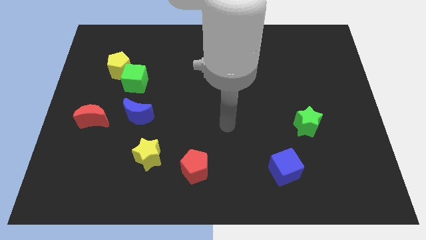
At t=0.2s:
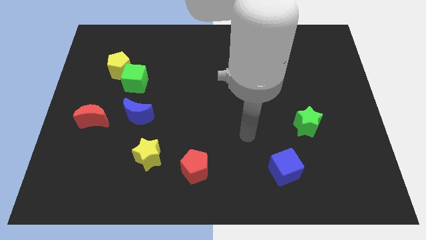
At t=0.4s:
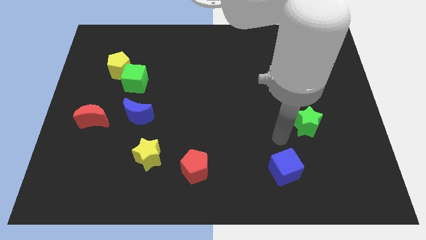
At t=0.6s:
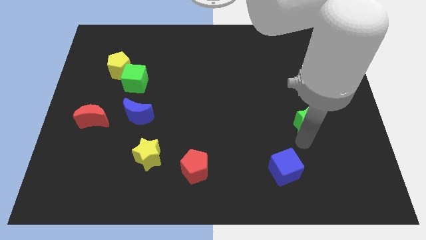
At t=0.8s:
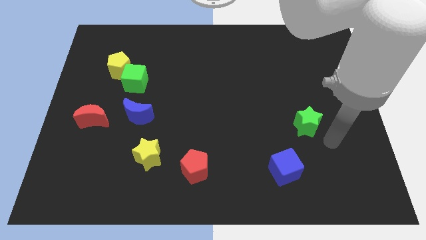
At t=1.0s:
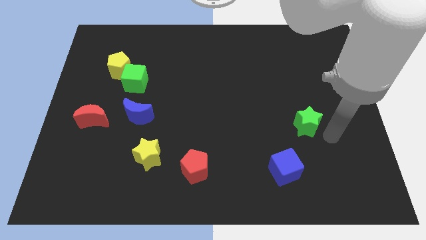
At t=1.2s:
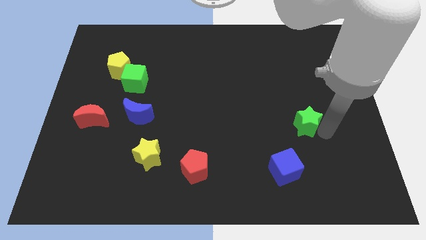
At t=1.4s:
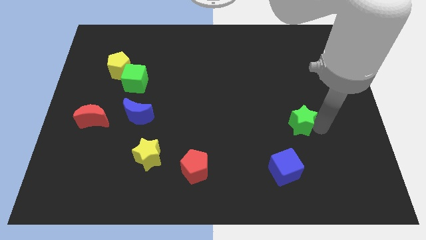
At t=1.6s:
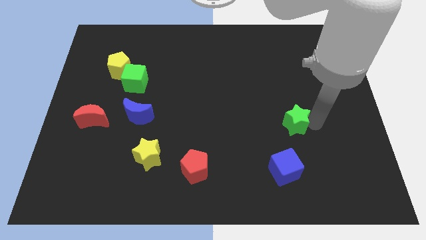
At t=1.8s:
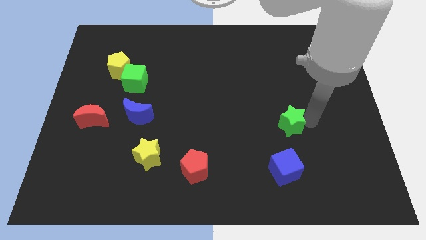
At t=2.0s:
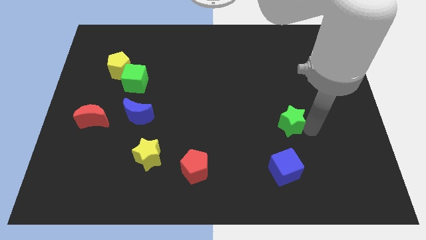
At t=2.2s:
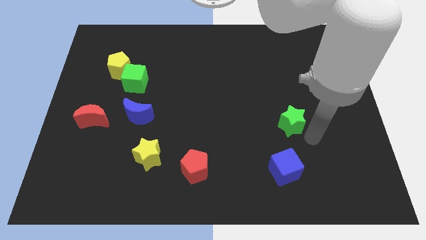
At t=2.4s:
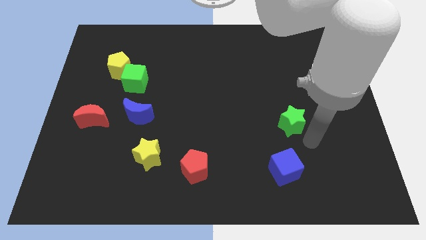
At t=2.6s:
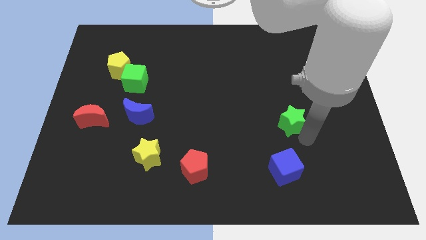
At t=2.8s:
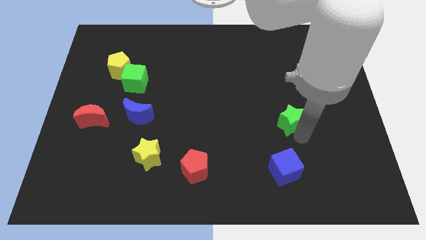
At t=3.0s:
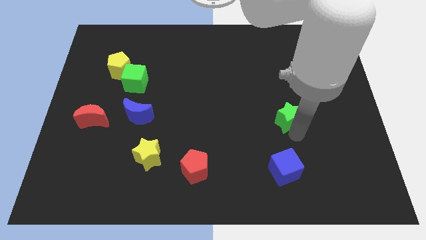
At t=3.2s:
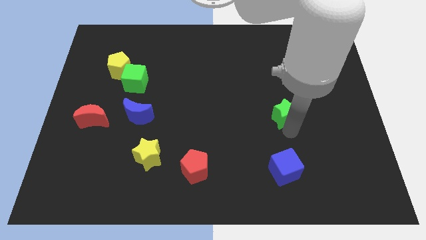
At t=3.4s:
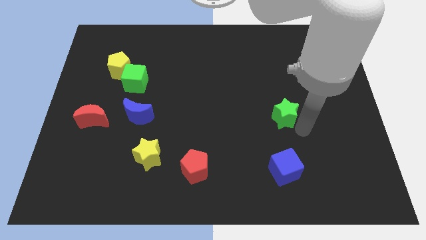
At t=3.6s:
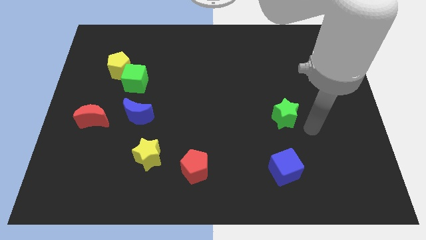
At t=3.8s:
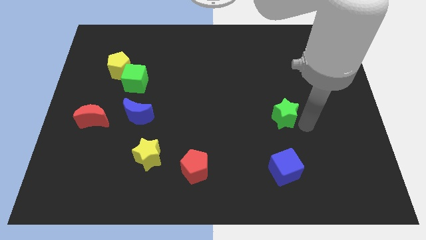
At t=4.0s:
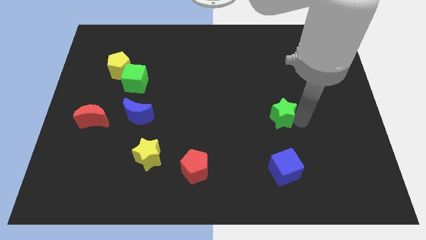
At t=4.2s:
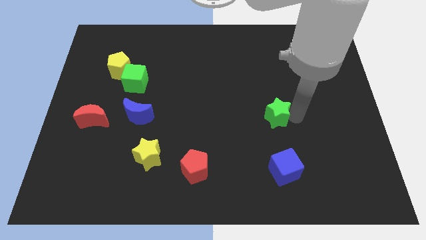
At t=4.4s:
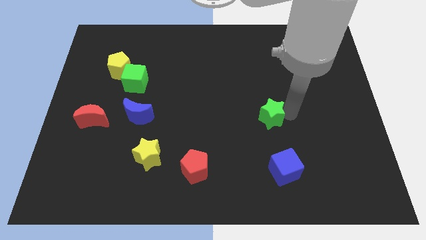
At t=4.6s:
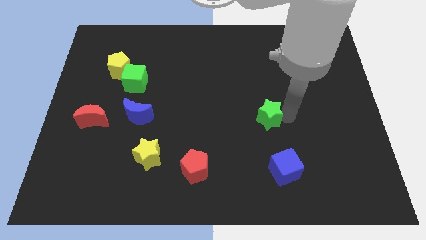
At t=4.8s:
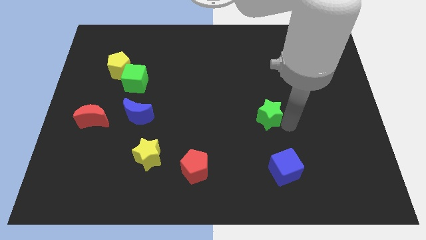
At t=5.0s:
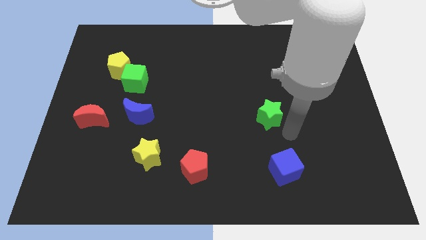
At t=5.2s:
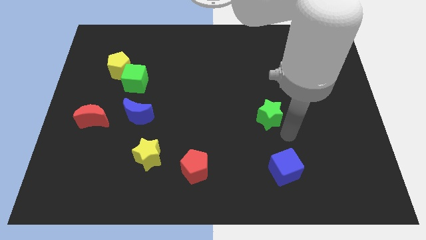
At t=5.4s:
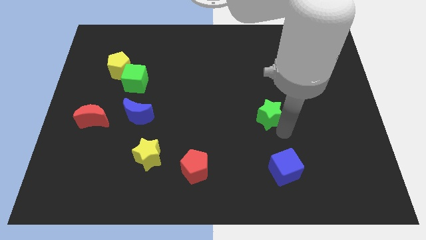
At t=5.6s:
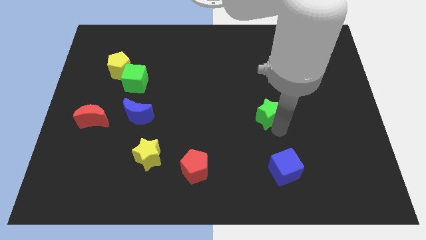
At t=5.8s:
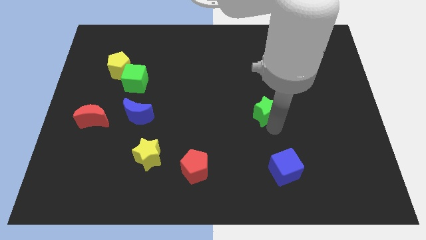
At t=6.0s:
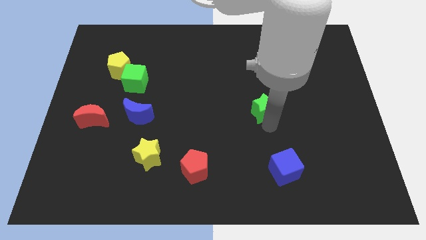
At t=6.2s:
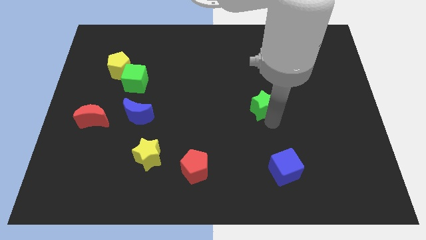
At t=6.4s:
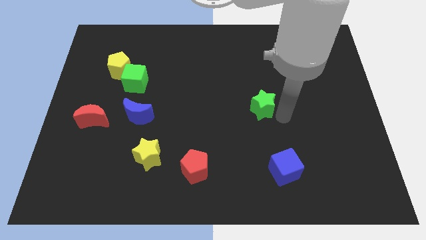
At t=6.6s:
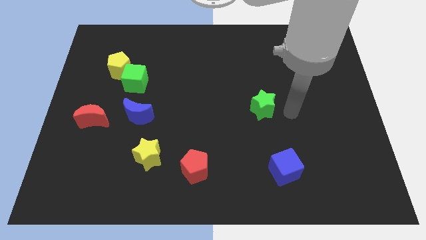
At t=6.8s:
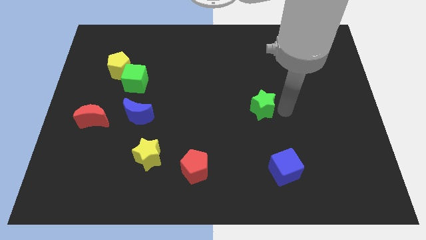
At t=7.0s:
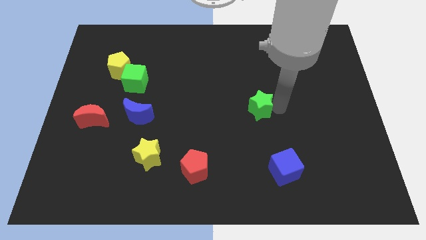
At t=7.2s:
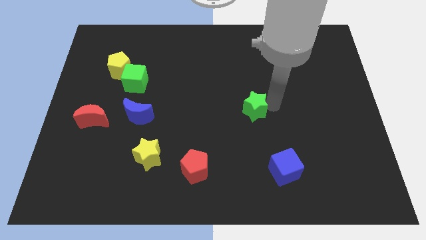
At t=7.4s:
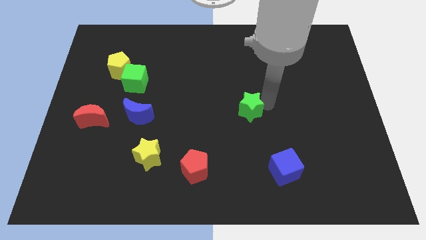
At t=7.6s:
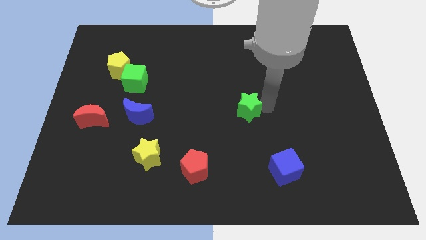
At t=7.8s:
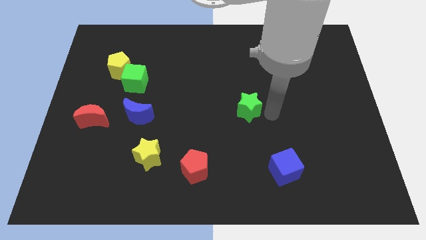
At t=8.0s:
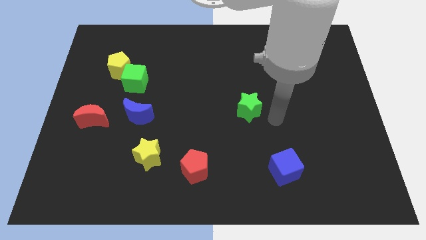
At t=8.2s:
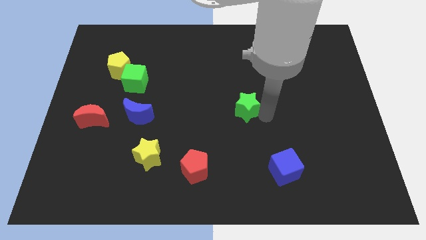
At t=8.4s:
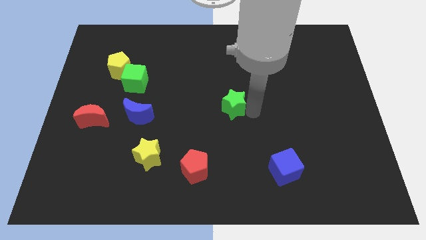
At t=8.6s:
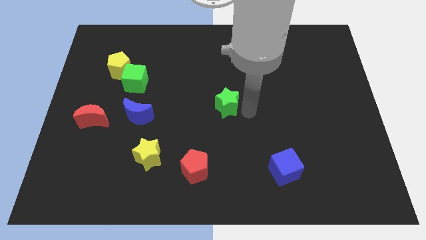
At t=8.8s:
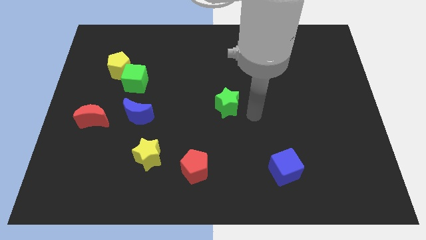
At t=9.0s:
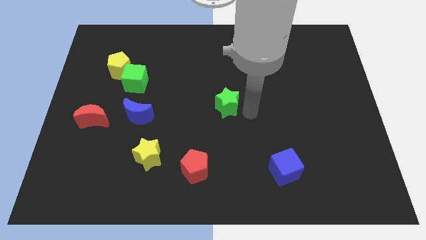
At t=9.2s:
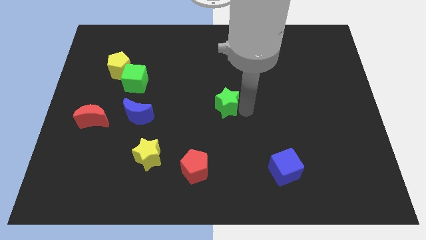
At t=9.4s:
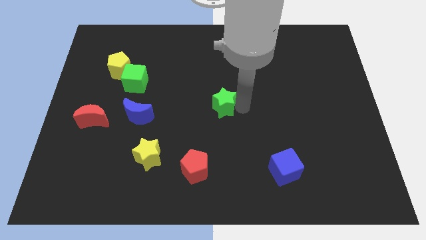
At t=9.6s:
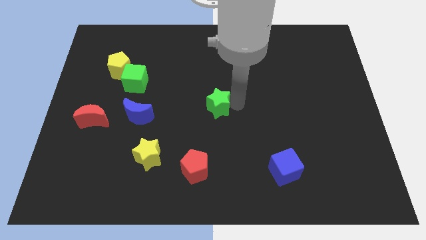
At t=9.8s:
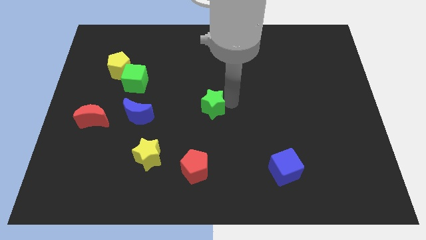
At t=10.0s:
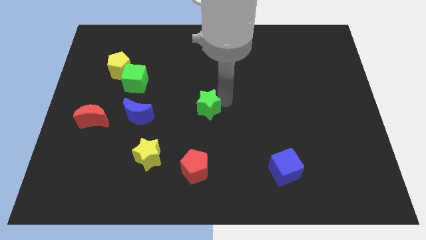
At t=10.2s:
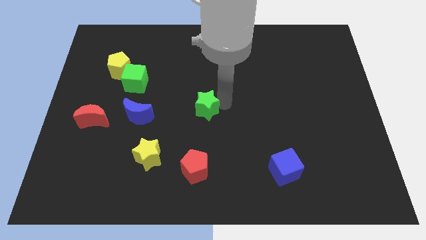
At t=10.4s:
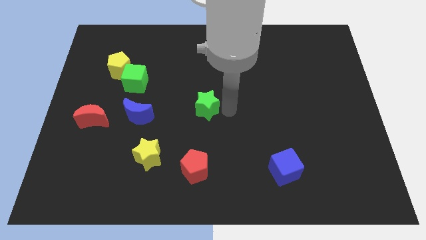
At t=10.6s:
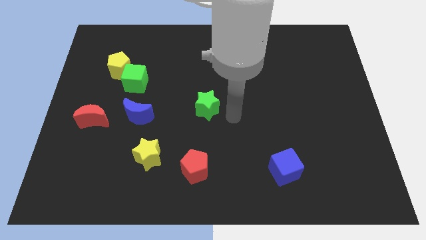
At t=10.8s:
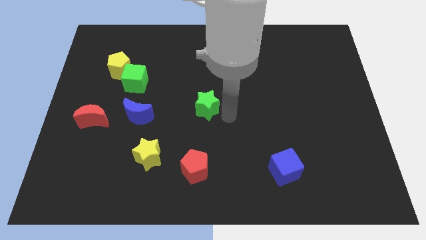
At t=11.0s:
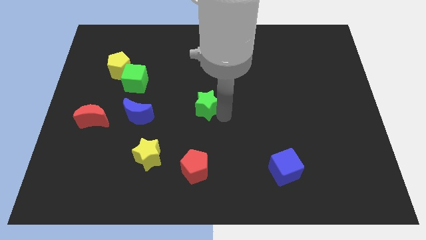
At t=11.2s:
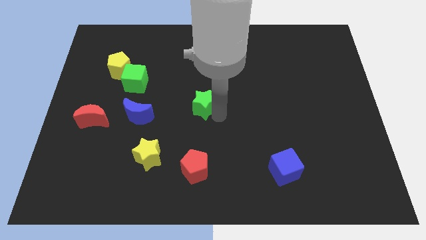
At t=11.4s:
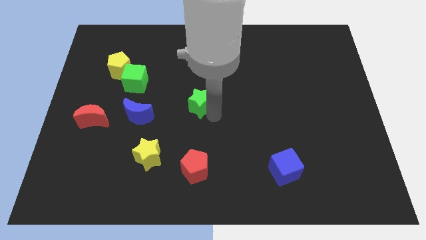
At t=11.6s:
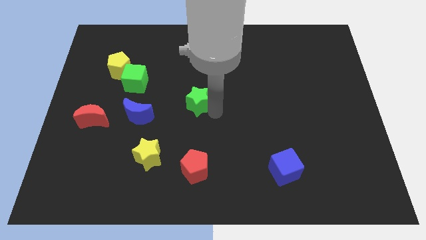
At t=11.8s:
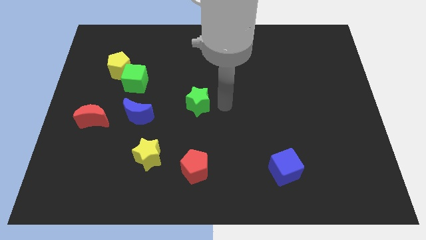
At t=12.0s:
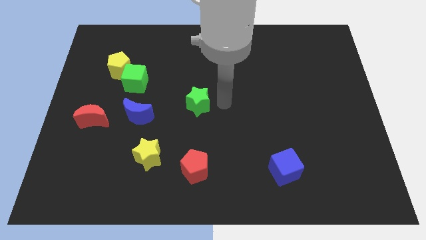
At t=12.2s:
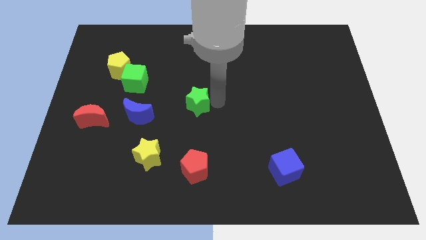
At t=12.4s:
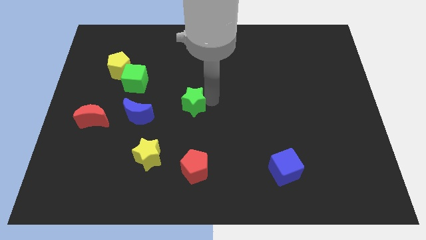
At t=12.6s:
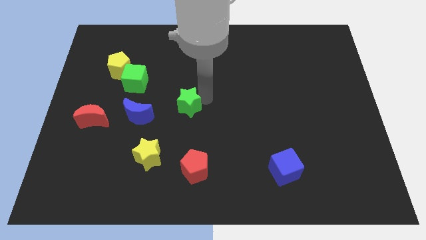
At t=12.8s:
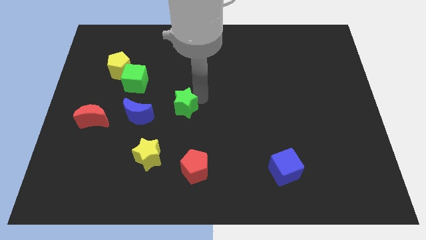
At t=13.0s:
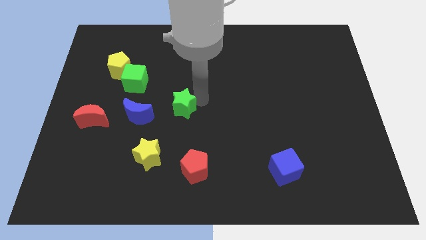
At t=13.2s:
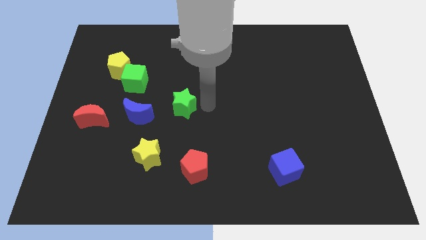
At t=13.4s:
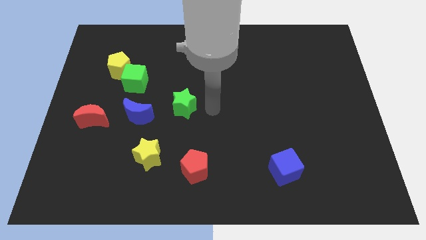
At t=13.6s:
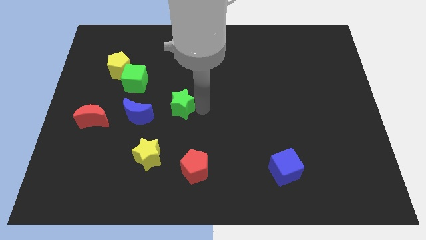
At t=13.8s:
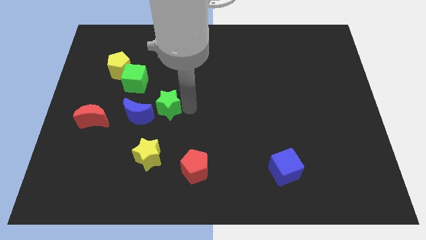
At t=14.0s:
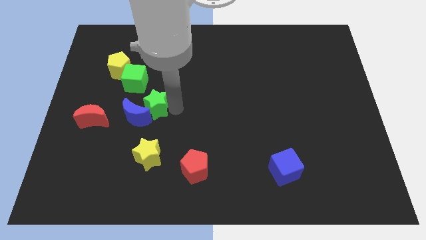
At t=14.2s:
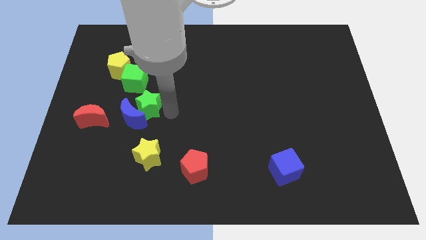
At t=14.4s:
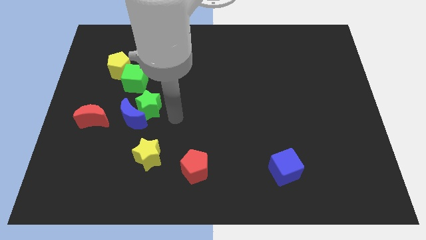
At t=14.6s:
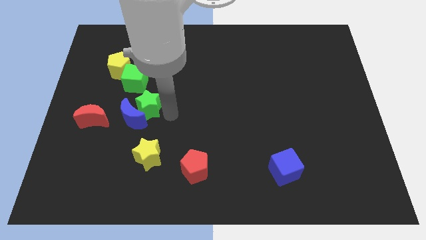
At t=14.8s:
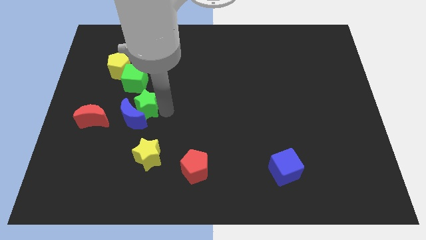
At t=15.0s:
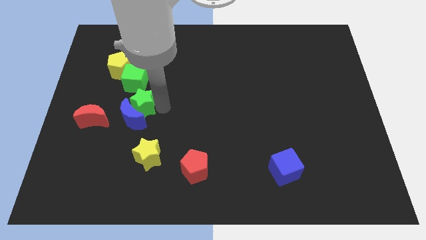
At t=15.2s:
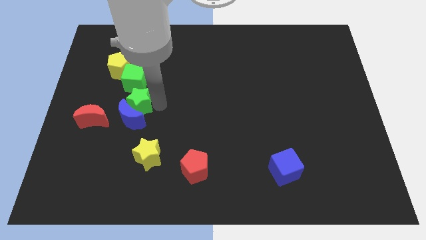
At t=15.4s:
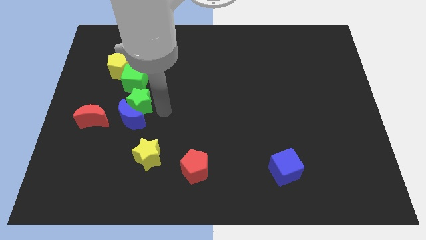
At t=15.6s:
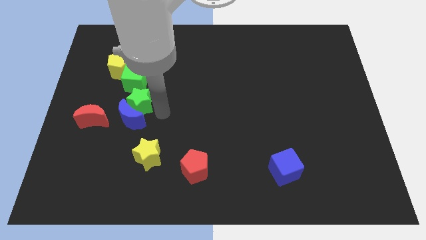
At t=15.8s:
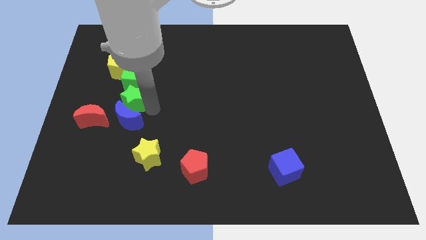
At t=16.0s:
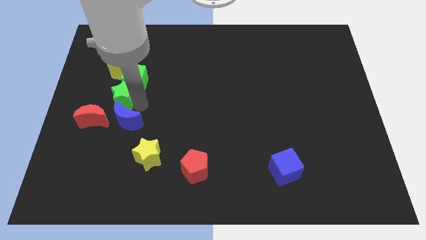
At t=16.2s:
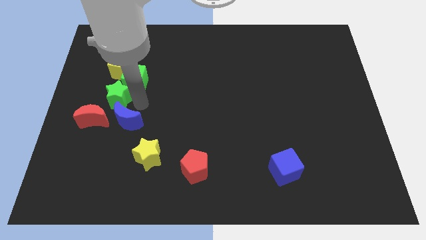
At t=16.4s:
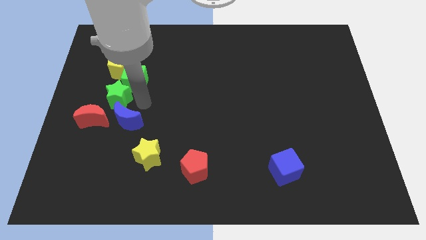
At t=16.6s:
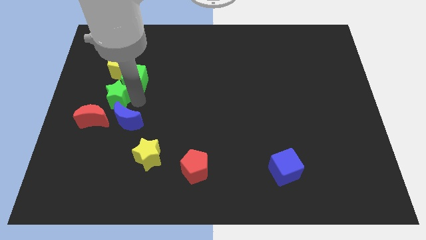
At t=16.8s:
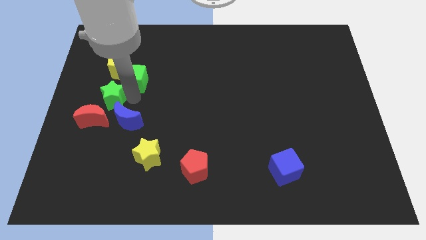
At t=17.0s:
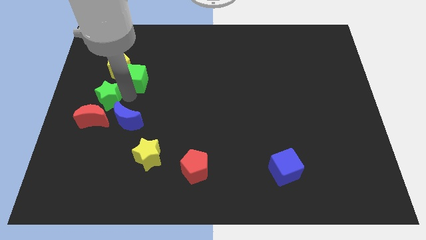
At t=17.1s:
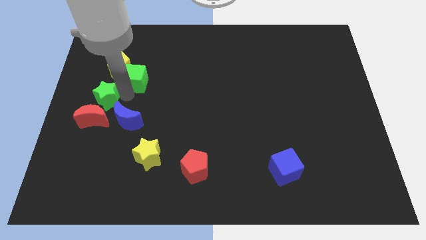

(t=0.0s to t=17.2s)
put the green star to the center left
